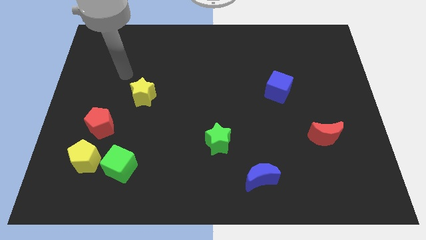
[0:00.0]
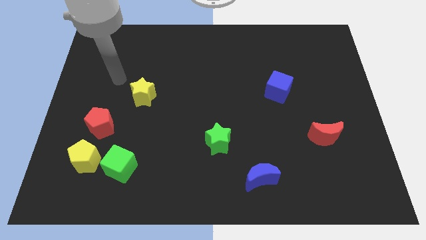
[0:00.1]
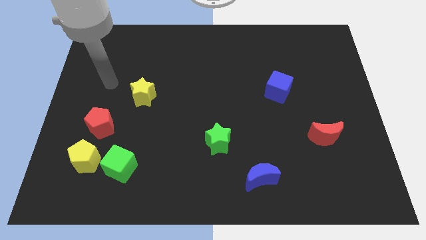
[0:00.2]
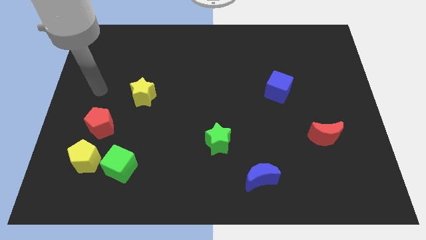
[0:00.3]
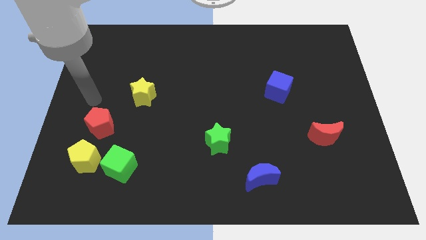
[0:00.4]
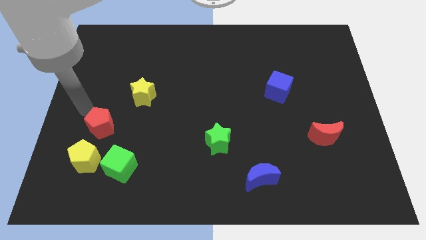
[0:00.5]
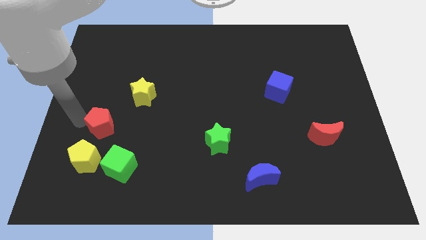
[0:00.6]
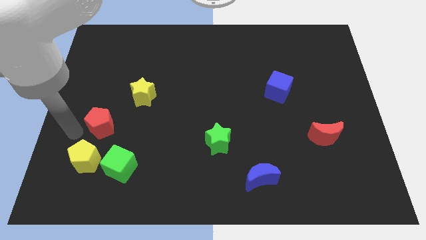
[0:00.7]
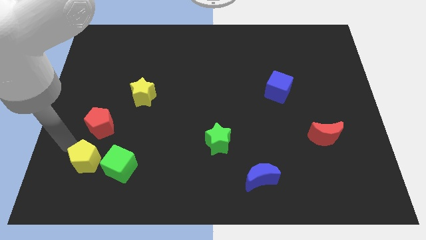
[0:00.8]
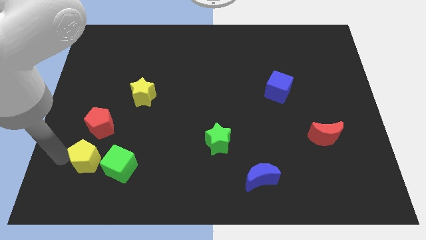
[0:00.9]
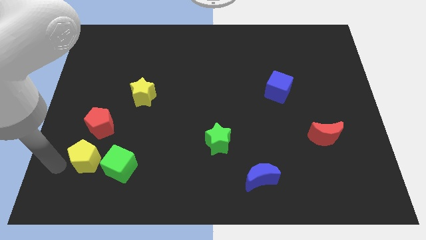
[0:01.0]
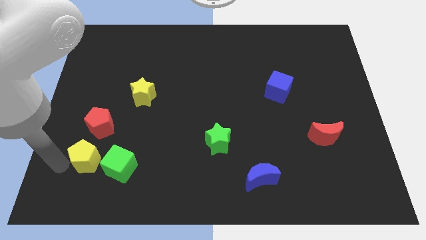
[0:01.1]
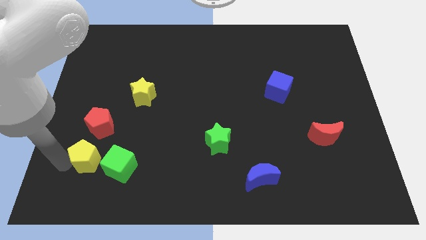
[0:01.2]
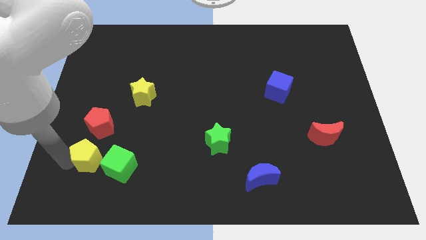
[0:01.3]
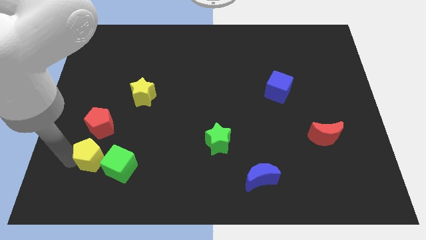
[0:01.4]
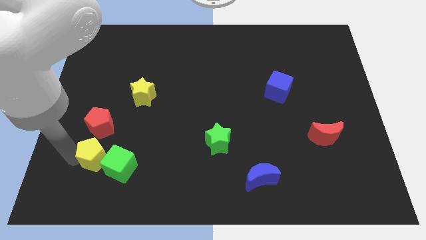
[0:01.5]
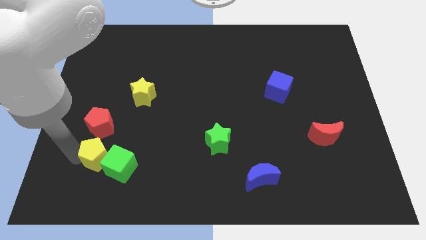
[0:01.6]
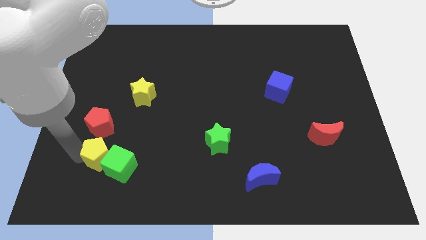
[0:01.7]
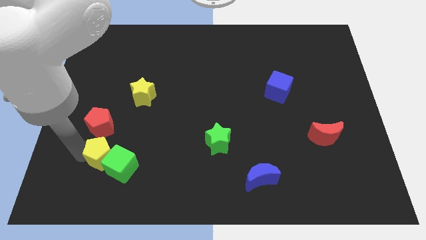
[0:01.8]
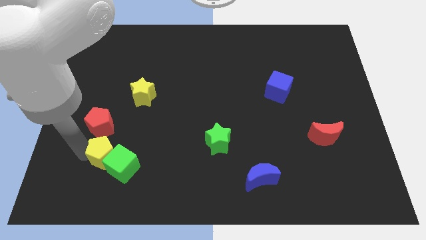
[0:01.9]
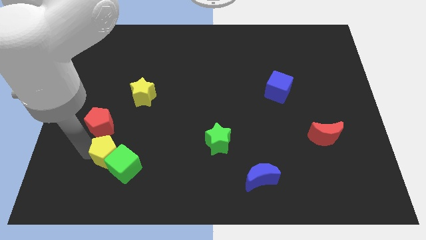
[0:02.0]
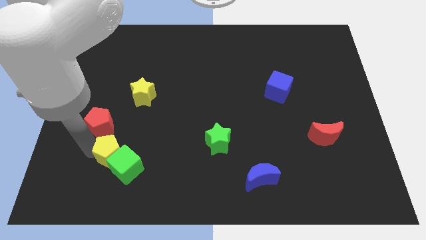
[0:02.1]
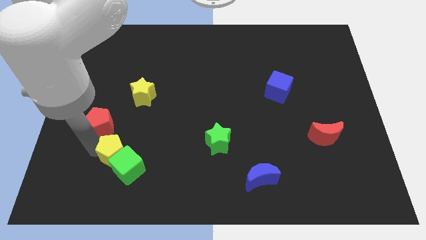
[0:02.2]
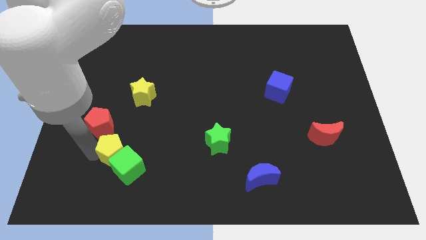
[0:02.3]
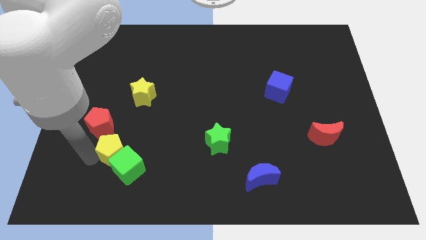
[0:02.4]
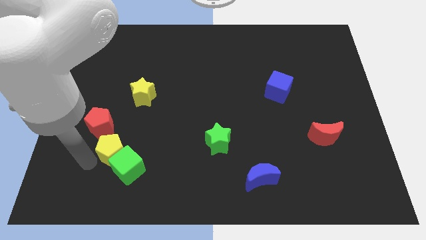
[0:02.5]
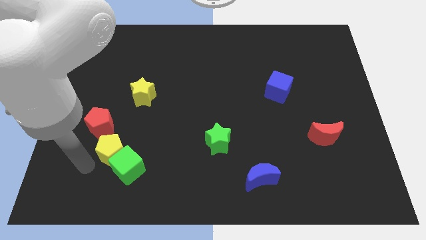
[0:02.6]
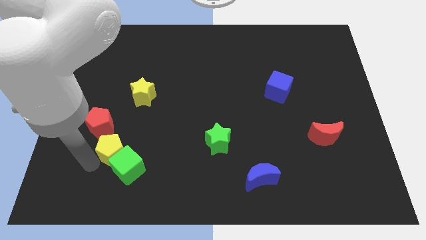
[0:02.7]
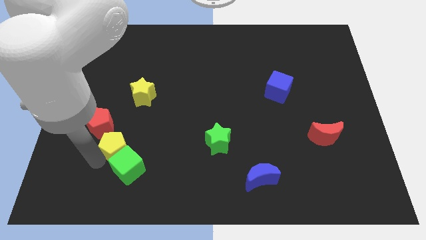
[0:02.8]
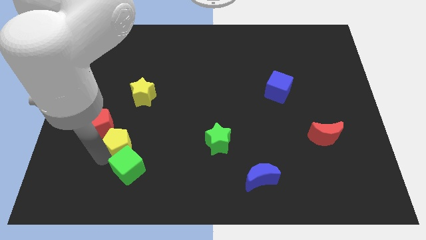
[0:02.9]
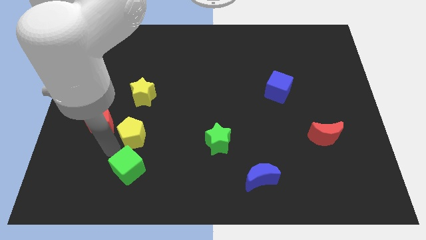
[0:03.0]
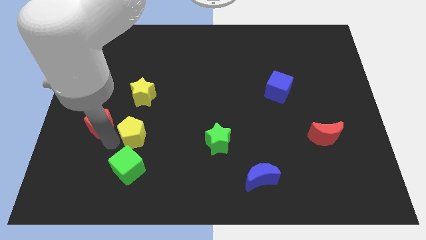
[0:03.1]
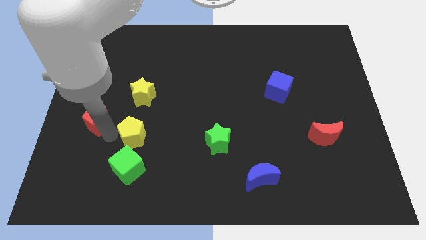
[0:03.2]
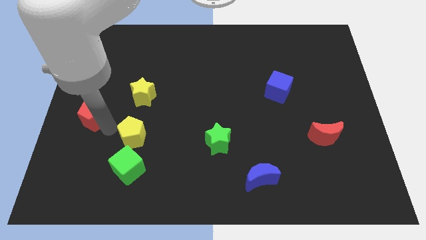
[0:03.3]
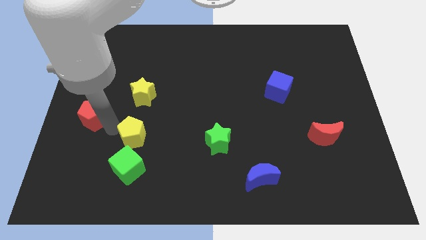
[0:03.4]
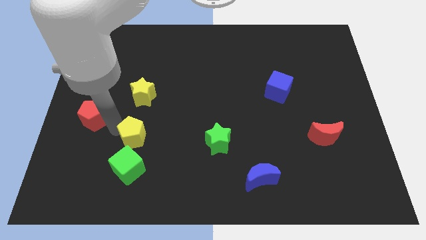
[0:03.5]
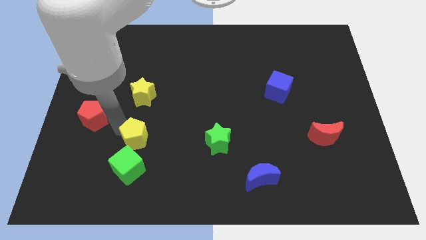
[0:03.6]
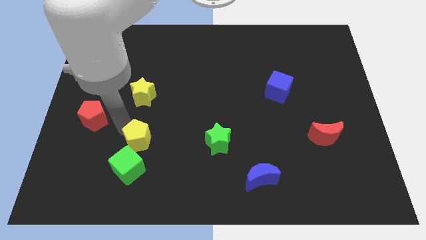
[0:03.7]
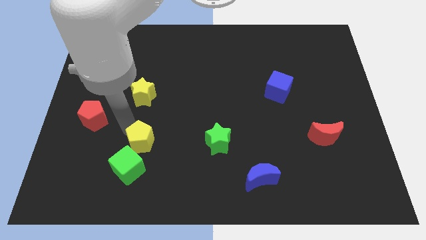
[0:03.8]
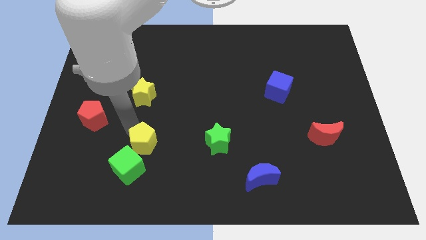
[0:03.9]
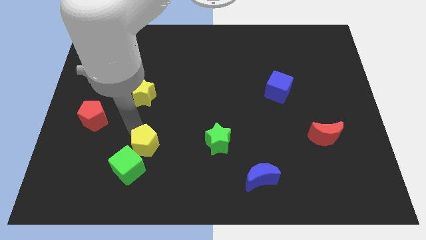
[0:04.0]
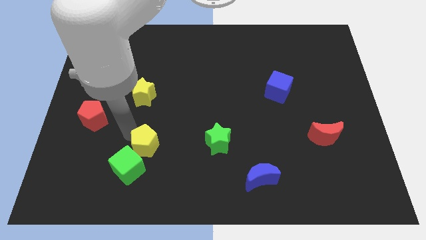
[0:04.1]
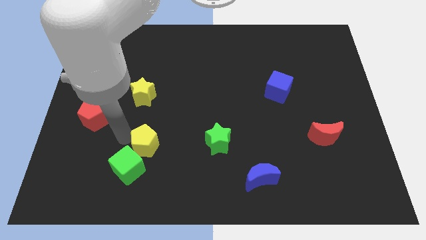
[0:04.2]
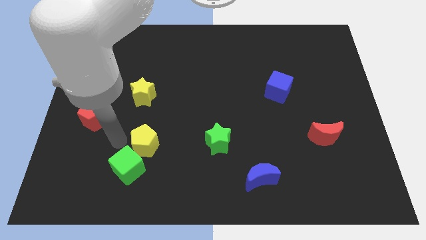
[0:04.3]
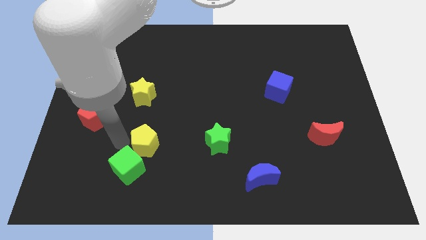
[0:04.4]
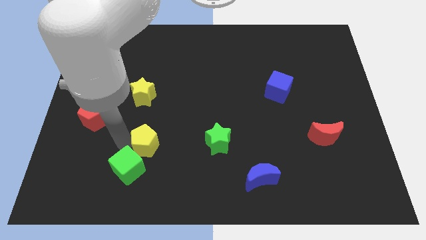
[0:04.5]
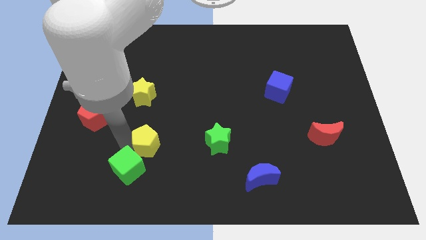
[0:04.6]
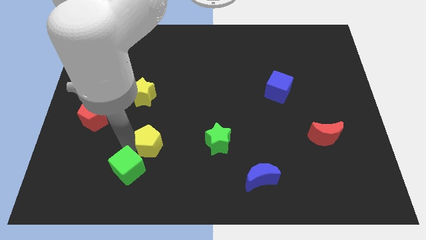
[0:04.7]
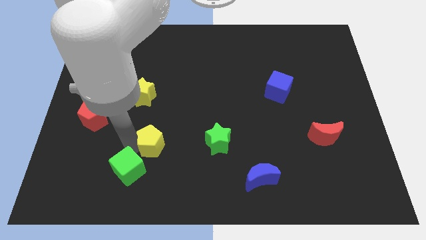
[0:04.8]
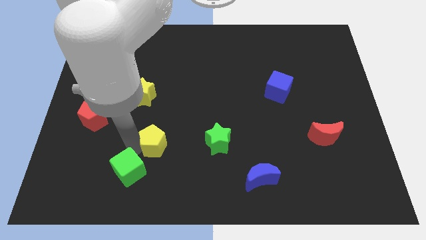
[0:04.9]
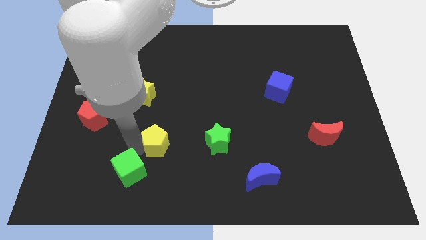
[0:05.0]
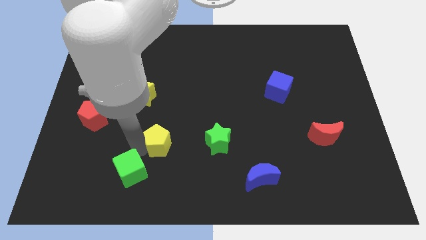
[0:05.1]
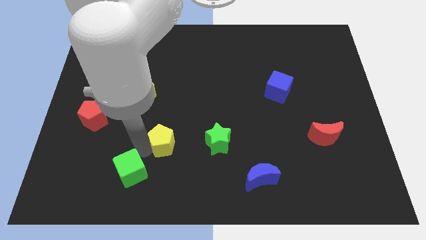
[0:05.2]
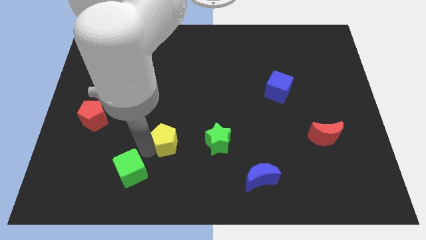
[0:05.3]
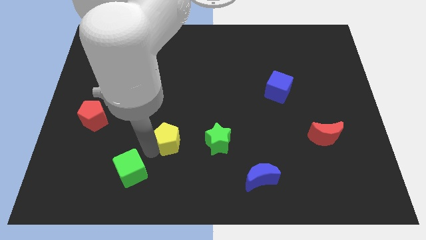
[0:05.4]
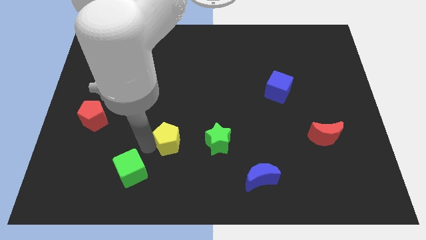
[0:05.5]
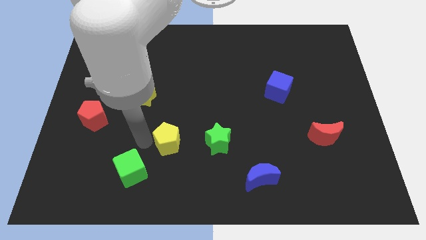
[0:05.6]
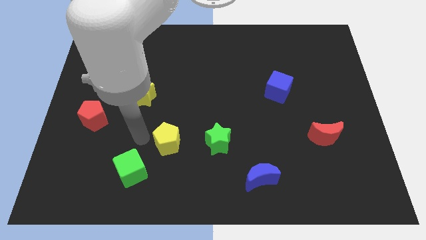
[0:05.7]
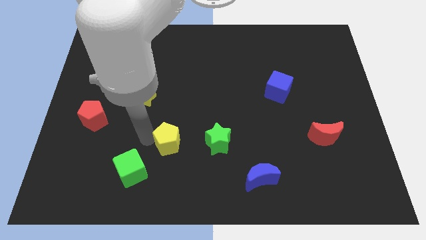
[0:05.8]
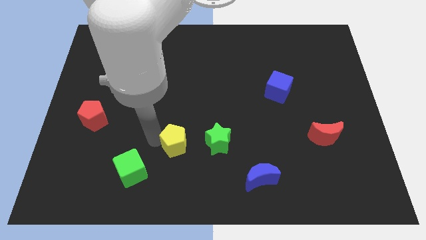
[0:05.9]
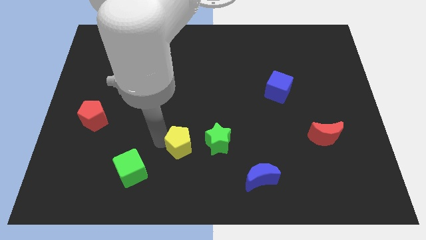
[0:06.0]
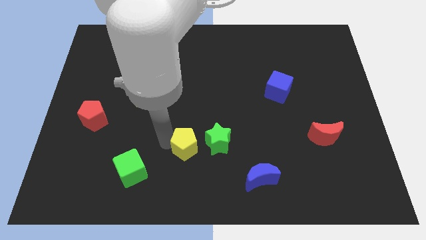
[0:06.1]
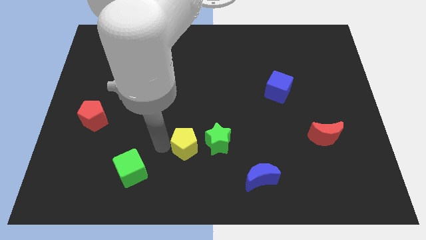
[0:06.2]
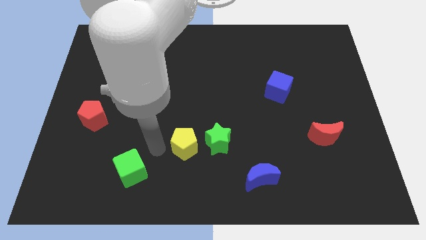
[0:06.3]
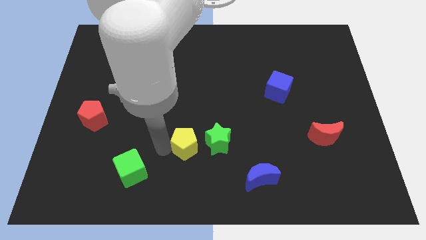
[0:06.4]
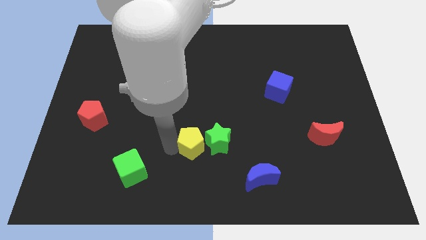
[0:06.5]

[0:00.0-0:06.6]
slide the yellow pentagon to the green star

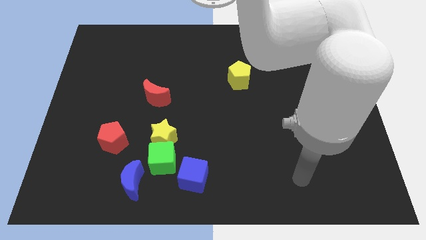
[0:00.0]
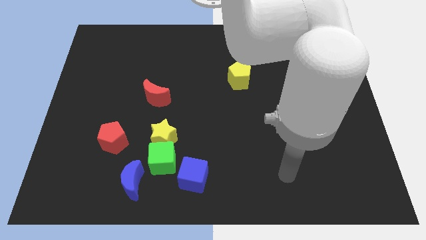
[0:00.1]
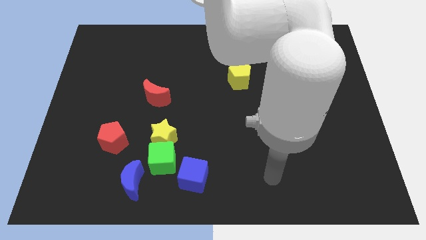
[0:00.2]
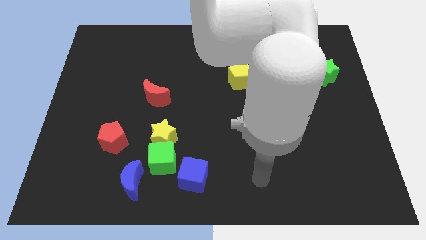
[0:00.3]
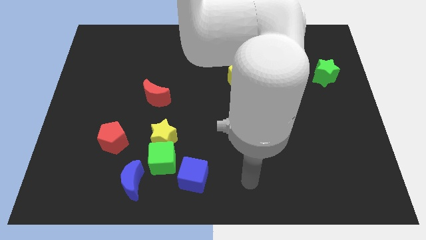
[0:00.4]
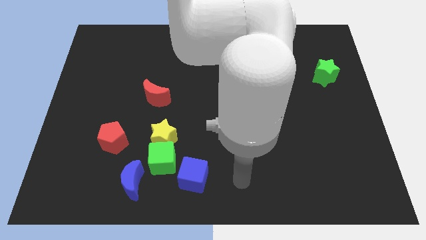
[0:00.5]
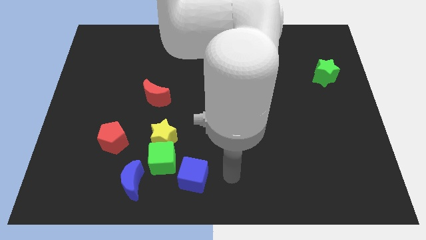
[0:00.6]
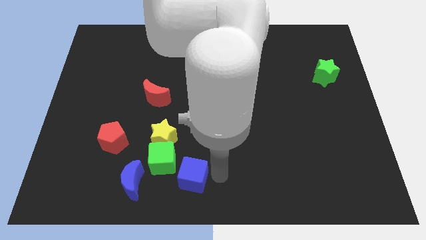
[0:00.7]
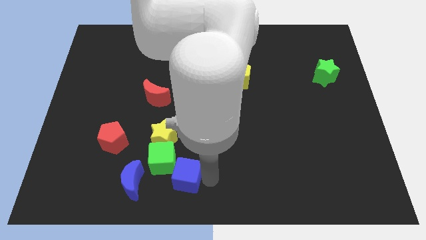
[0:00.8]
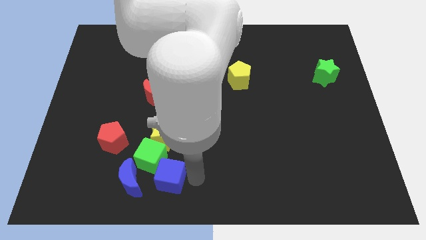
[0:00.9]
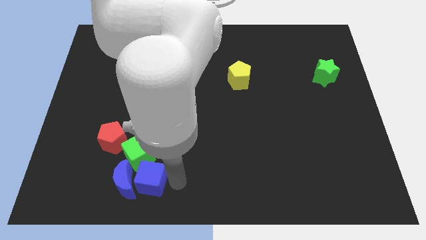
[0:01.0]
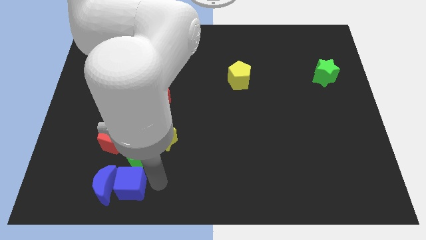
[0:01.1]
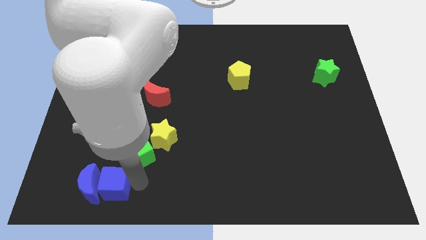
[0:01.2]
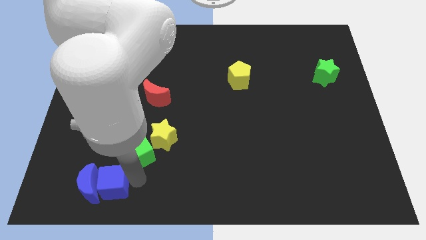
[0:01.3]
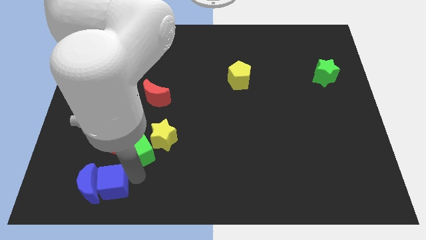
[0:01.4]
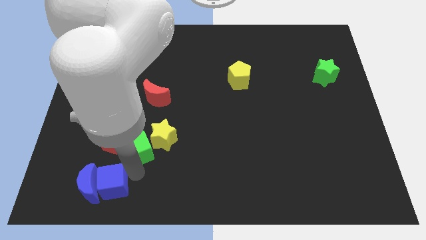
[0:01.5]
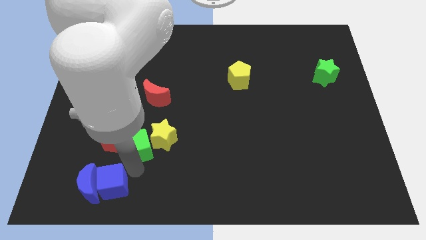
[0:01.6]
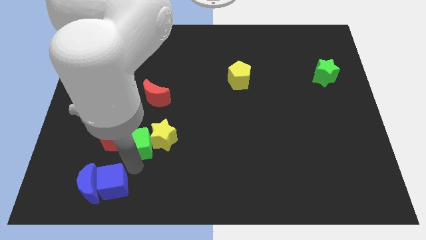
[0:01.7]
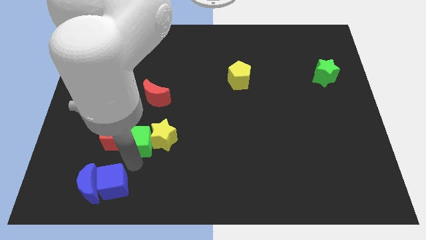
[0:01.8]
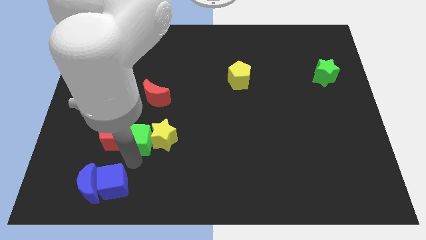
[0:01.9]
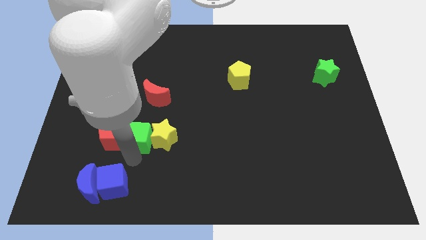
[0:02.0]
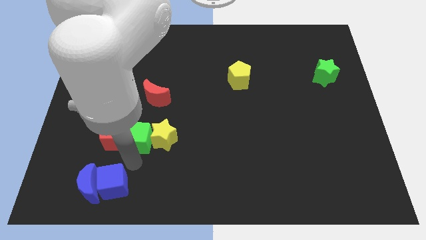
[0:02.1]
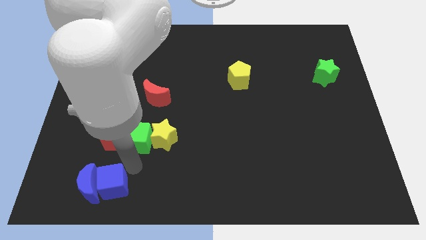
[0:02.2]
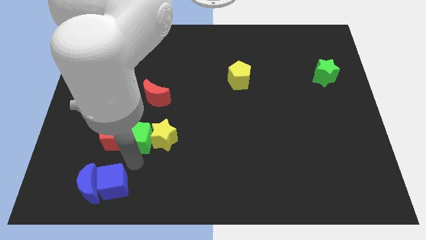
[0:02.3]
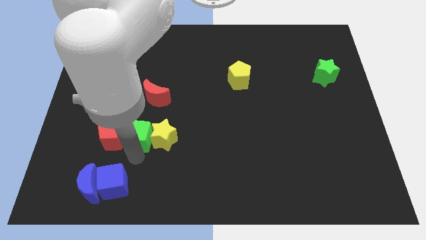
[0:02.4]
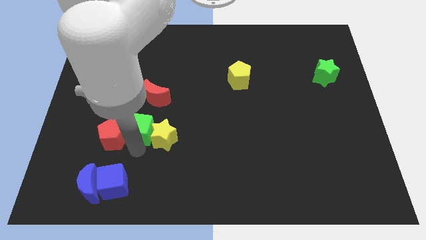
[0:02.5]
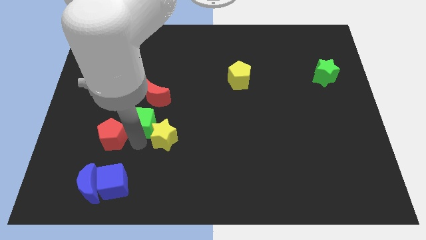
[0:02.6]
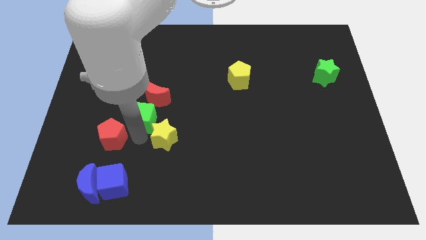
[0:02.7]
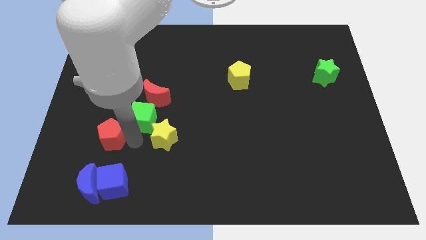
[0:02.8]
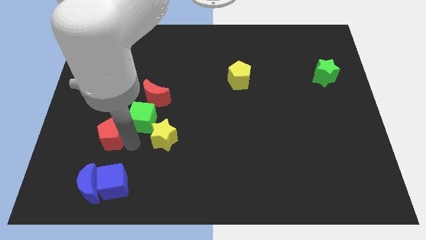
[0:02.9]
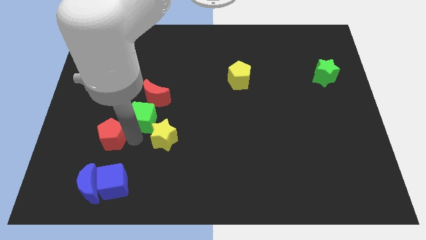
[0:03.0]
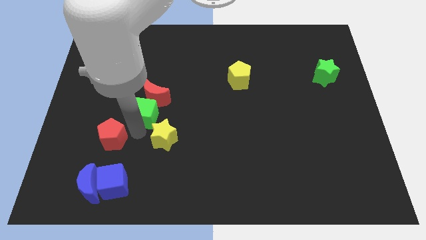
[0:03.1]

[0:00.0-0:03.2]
put the green cube close to the red moon
